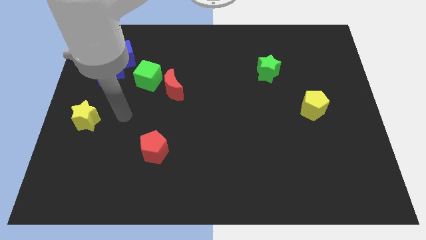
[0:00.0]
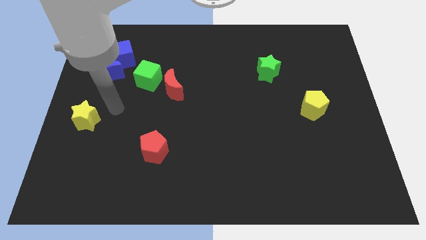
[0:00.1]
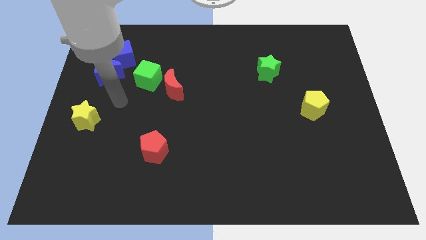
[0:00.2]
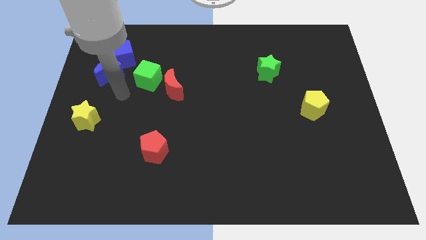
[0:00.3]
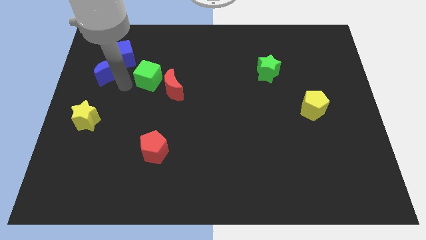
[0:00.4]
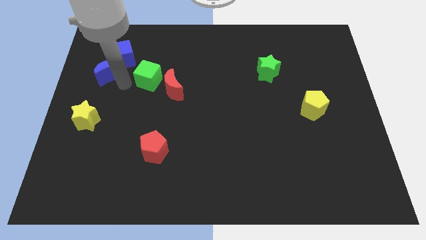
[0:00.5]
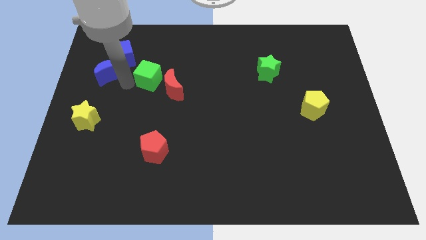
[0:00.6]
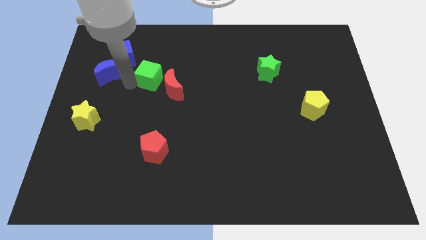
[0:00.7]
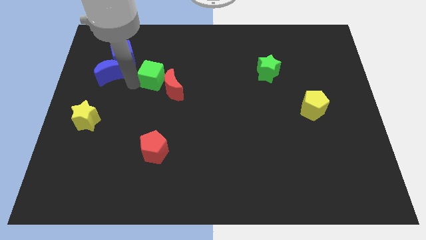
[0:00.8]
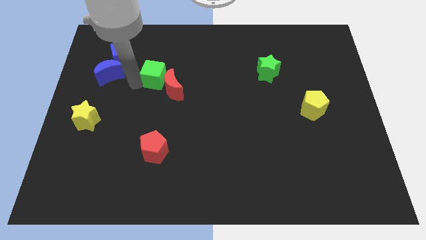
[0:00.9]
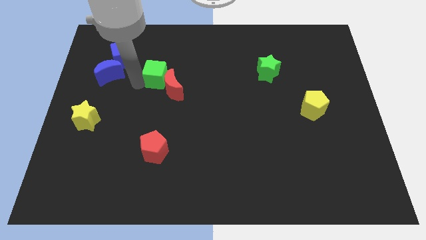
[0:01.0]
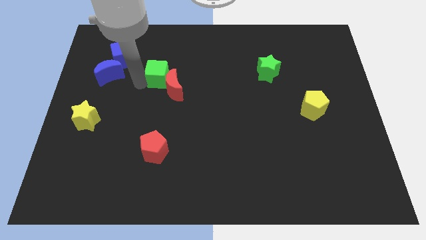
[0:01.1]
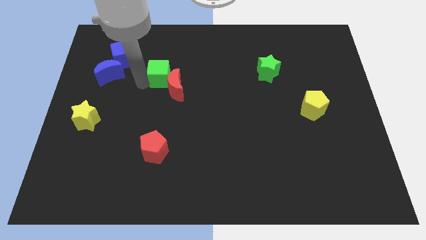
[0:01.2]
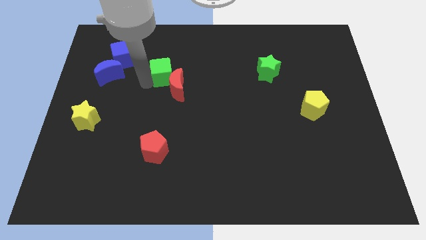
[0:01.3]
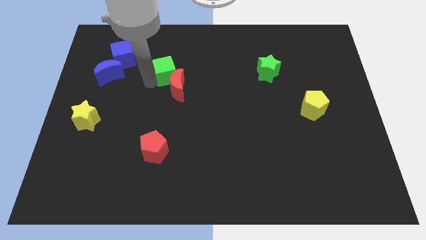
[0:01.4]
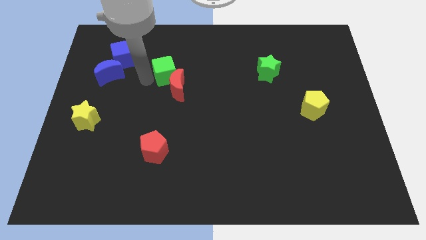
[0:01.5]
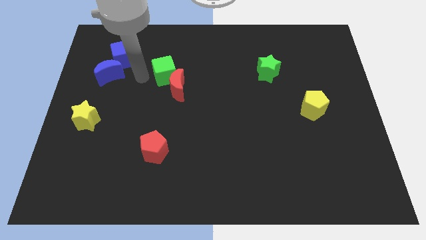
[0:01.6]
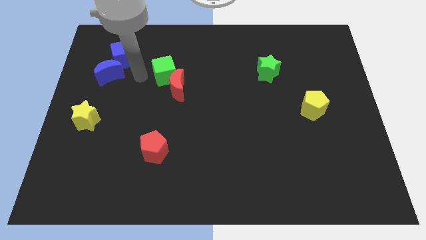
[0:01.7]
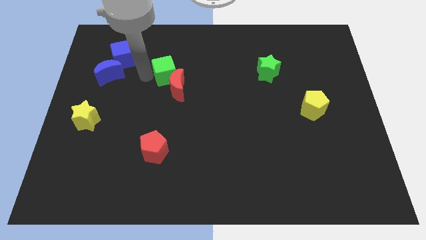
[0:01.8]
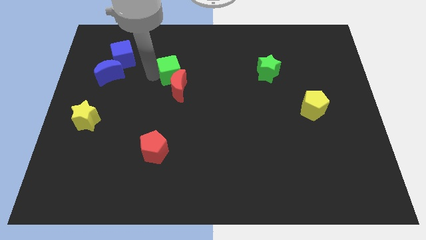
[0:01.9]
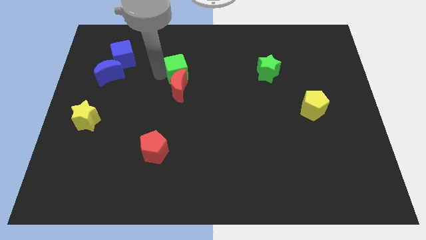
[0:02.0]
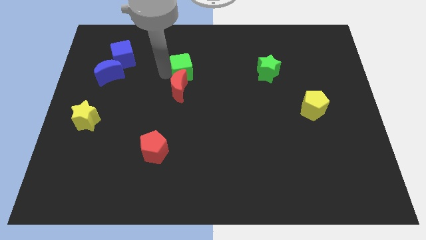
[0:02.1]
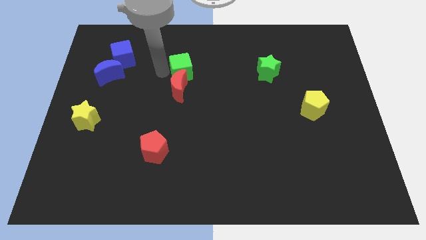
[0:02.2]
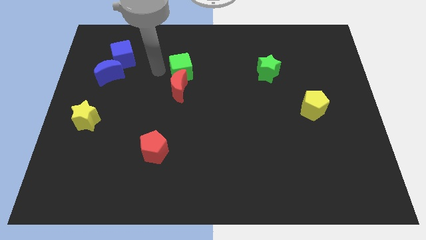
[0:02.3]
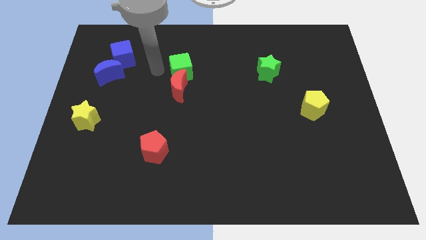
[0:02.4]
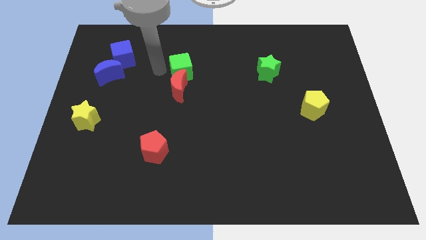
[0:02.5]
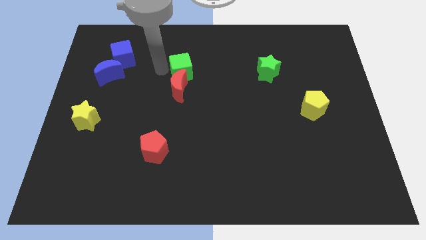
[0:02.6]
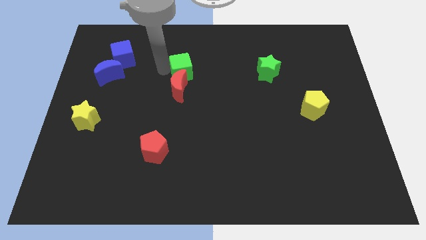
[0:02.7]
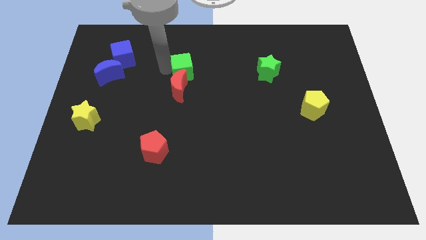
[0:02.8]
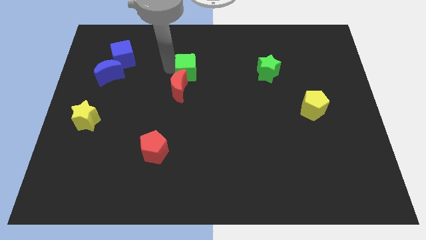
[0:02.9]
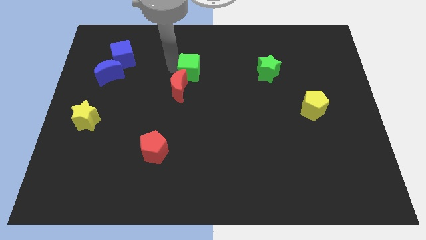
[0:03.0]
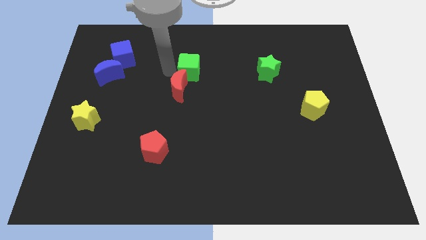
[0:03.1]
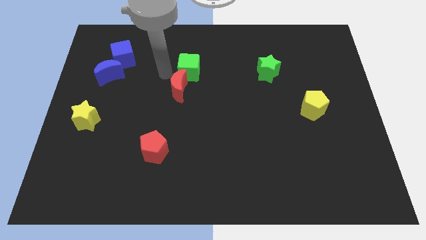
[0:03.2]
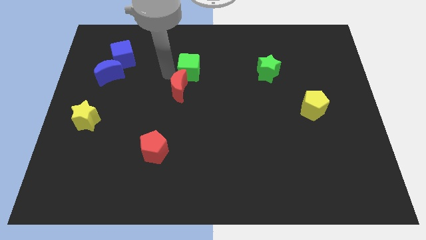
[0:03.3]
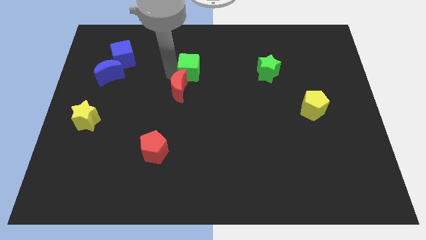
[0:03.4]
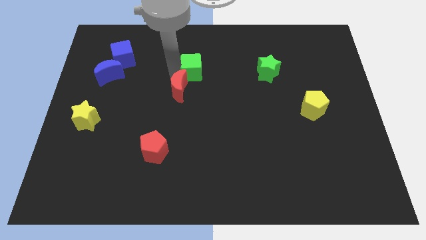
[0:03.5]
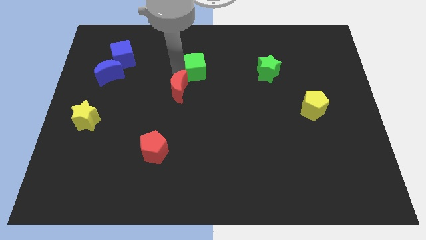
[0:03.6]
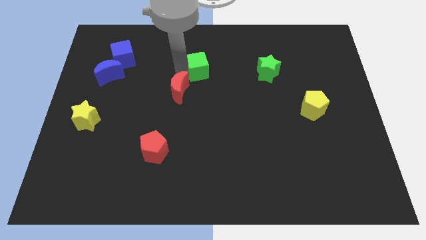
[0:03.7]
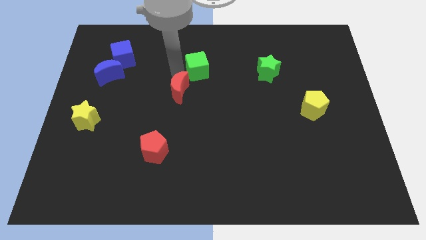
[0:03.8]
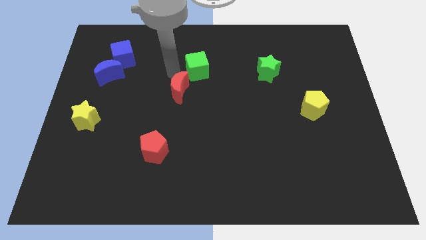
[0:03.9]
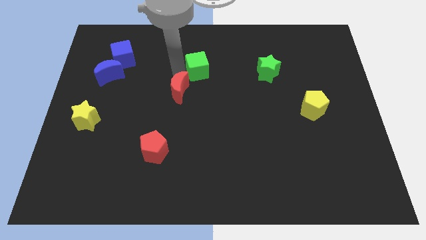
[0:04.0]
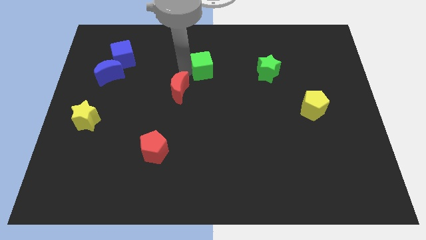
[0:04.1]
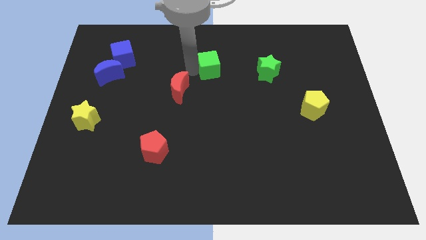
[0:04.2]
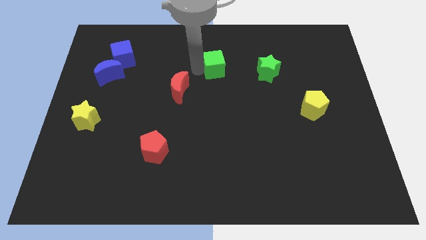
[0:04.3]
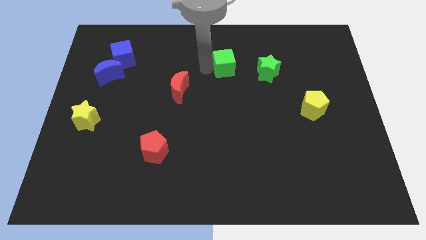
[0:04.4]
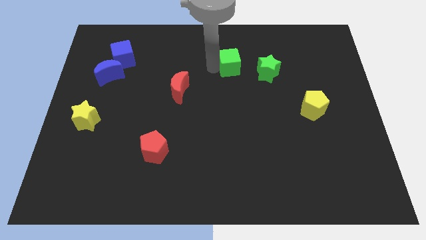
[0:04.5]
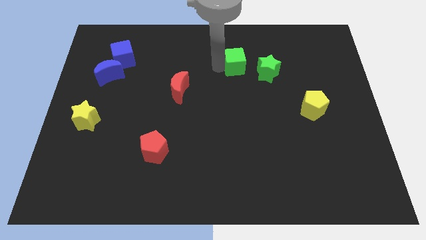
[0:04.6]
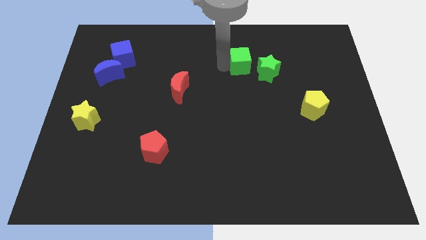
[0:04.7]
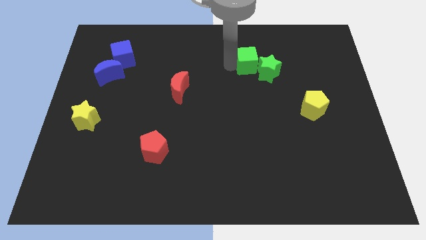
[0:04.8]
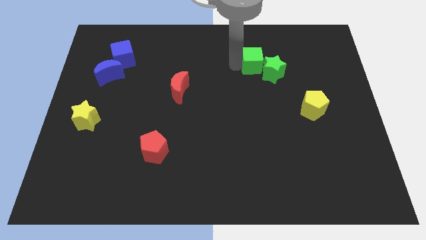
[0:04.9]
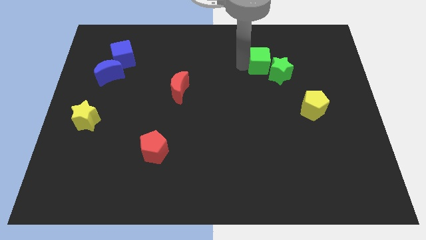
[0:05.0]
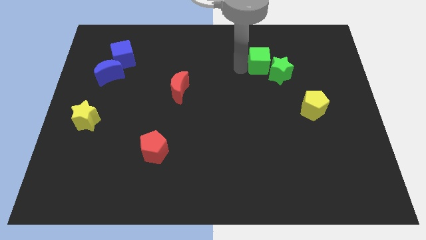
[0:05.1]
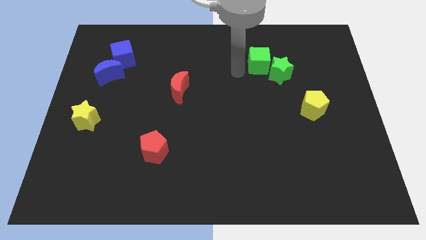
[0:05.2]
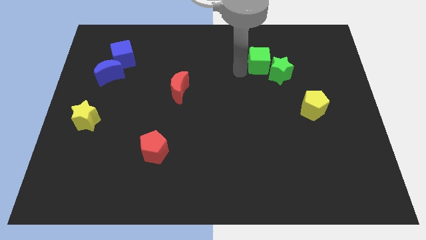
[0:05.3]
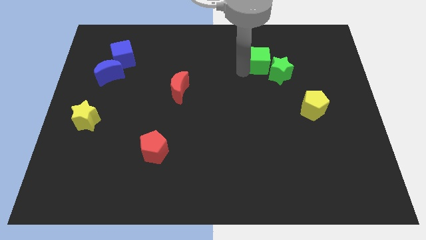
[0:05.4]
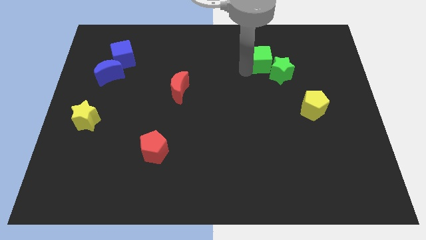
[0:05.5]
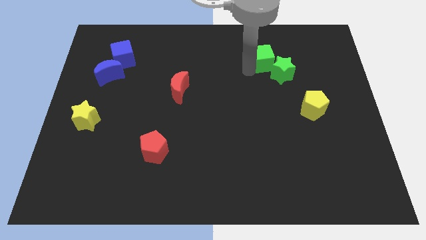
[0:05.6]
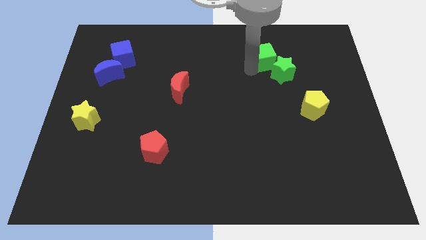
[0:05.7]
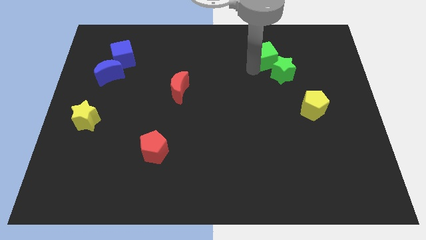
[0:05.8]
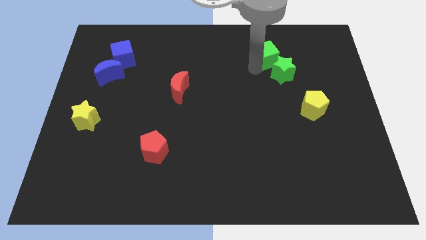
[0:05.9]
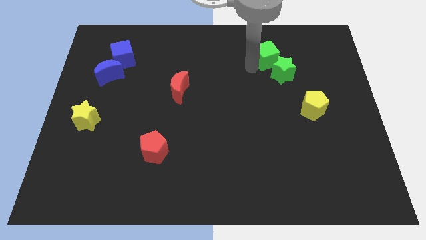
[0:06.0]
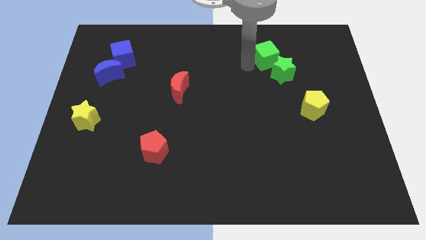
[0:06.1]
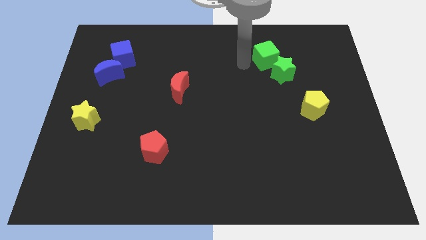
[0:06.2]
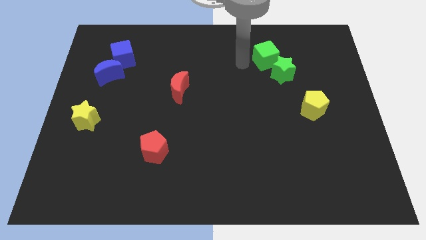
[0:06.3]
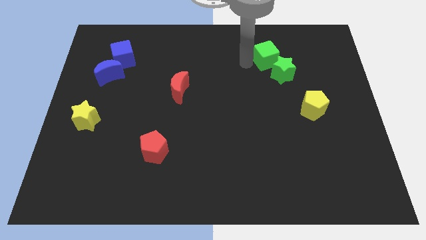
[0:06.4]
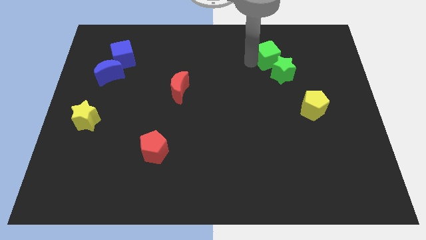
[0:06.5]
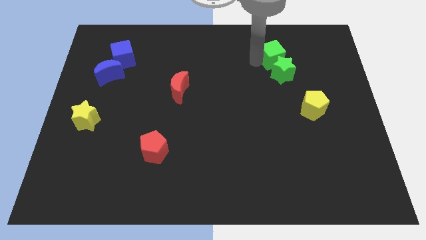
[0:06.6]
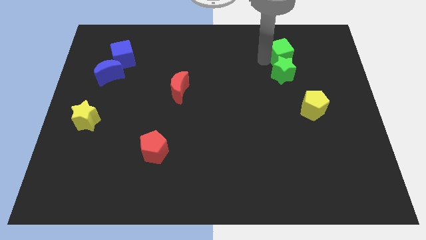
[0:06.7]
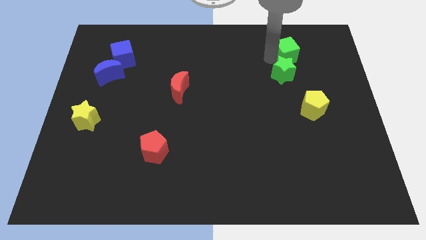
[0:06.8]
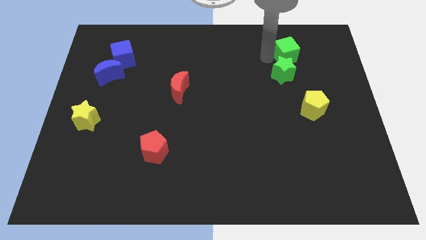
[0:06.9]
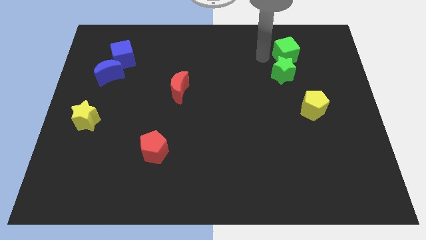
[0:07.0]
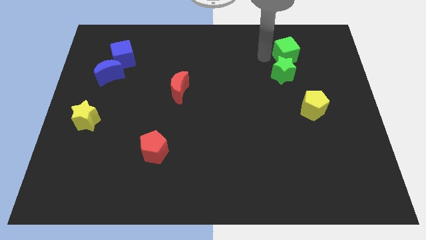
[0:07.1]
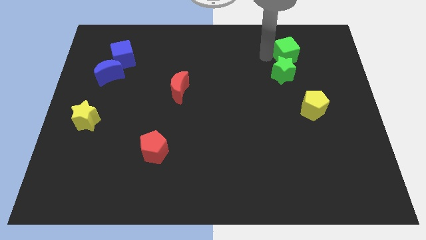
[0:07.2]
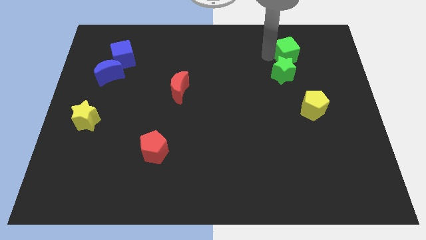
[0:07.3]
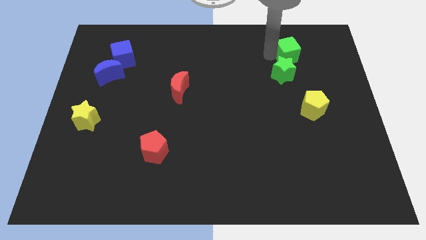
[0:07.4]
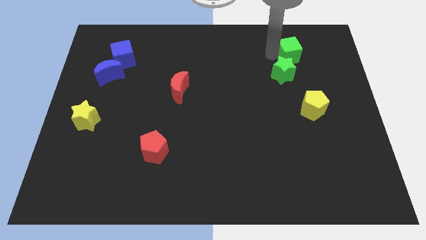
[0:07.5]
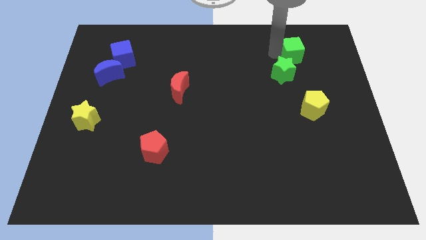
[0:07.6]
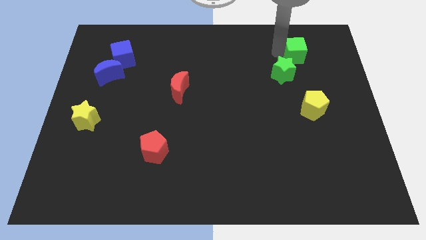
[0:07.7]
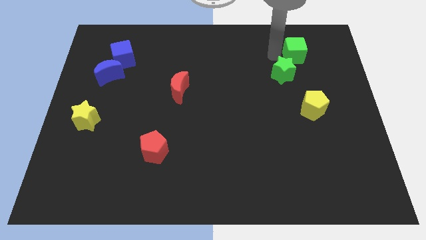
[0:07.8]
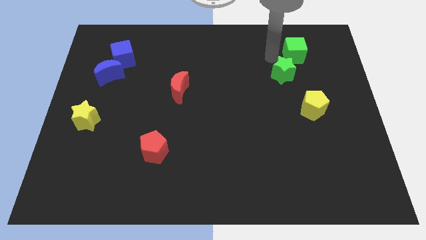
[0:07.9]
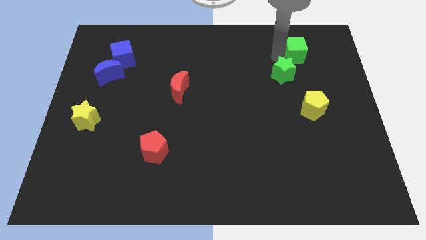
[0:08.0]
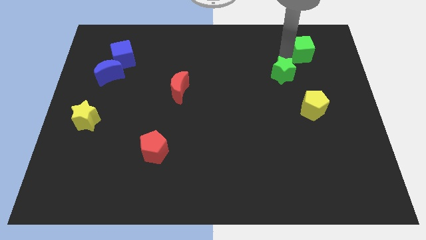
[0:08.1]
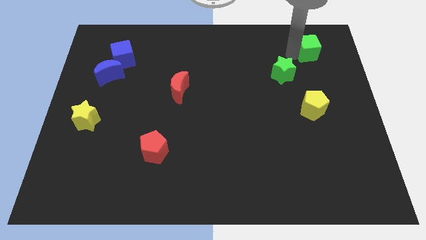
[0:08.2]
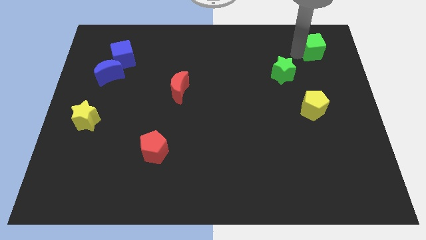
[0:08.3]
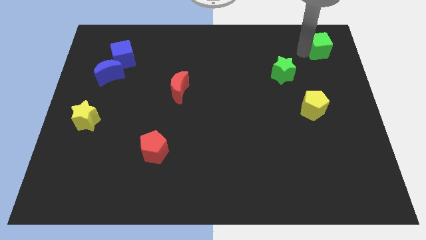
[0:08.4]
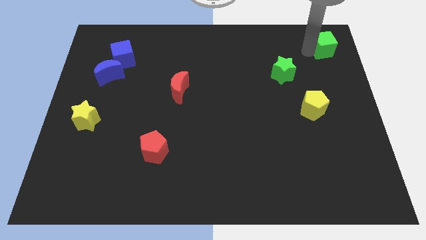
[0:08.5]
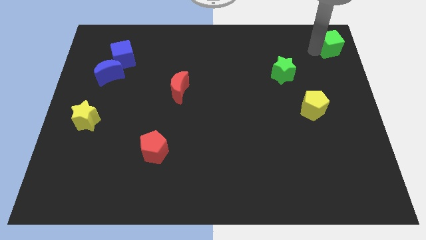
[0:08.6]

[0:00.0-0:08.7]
slide the green cube to the top right of the board
